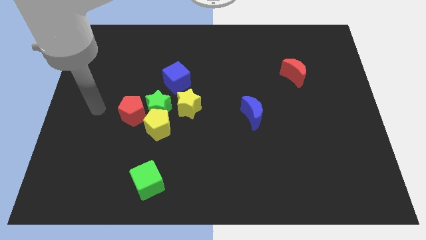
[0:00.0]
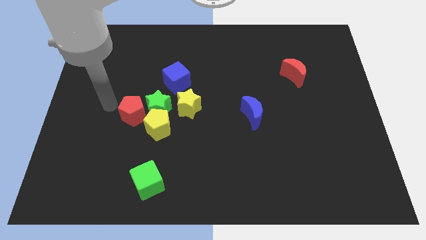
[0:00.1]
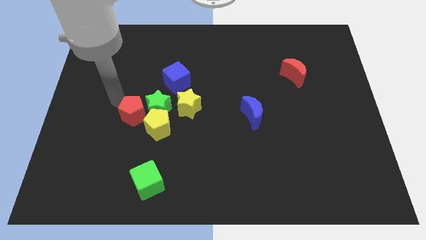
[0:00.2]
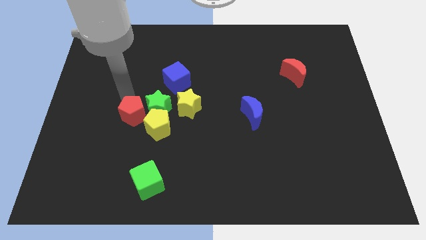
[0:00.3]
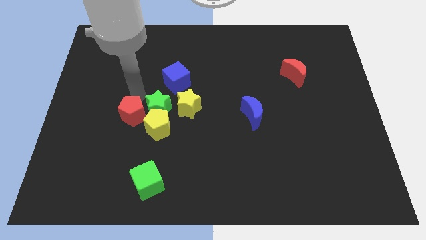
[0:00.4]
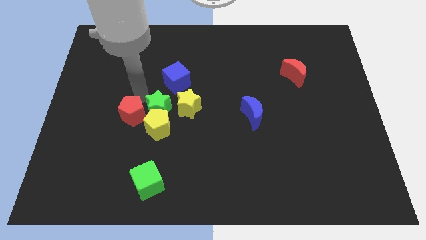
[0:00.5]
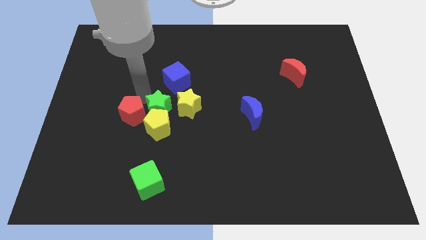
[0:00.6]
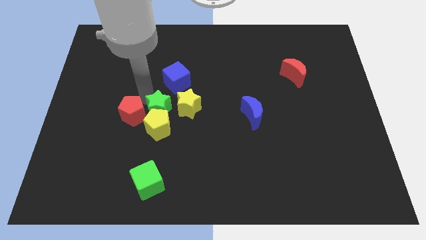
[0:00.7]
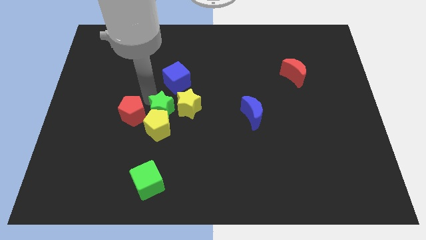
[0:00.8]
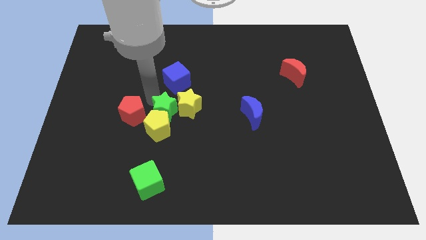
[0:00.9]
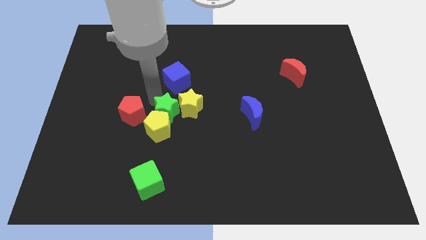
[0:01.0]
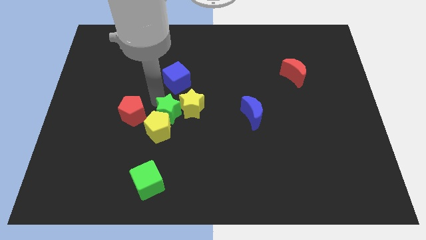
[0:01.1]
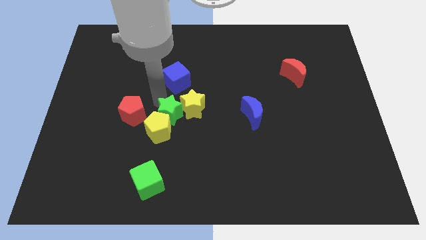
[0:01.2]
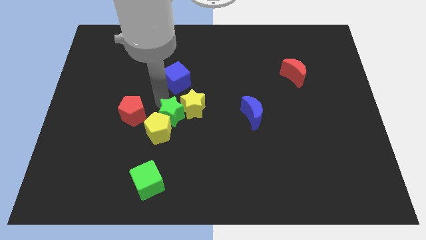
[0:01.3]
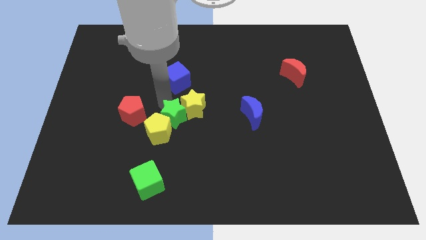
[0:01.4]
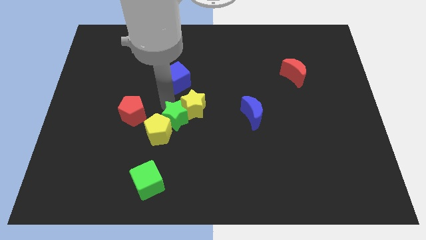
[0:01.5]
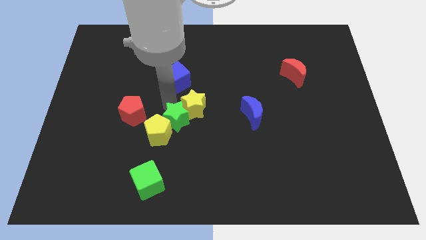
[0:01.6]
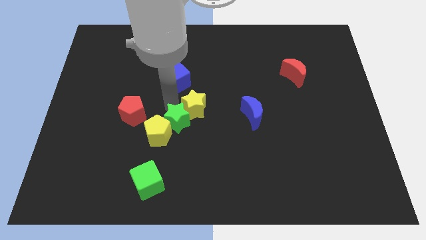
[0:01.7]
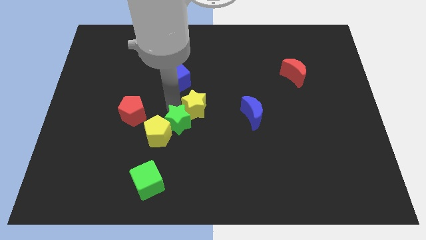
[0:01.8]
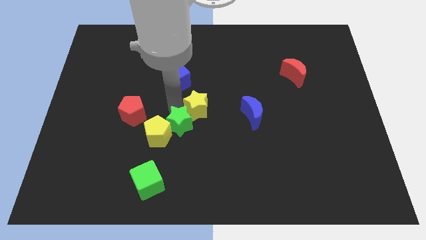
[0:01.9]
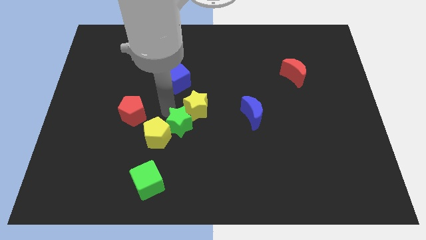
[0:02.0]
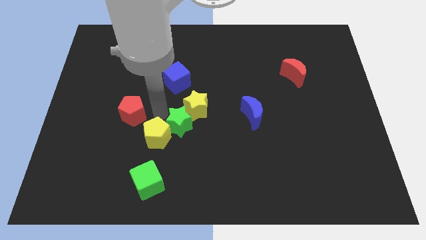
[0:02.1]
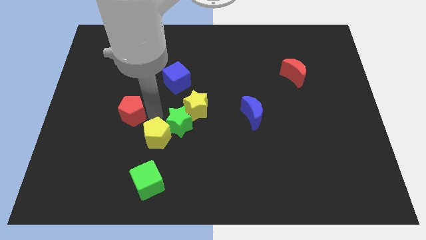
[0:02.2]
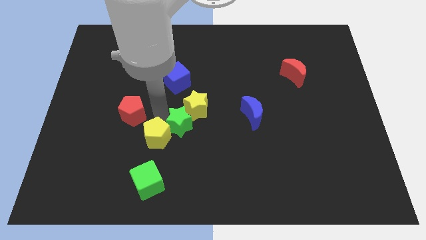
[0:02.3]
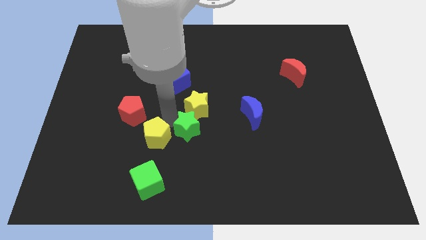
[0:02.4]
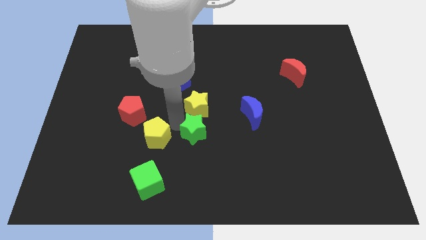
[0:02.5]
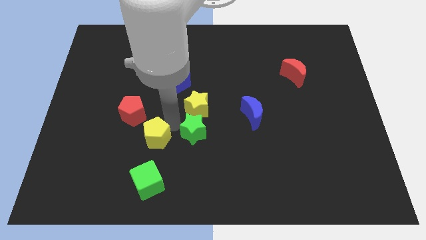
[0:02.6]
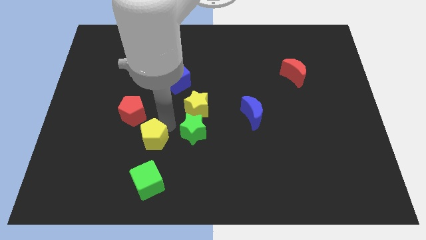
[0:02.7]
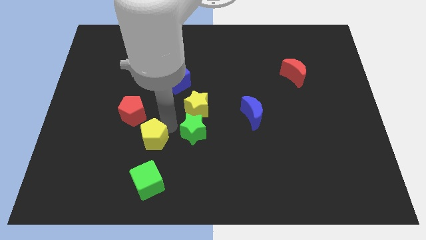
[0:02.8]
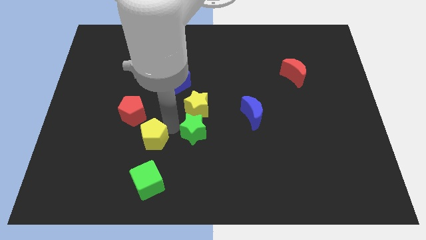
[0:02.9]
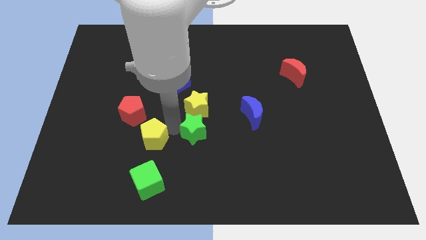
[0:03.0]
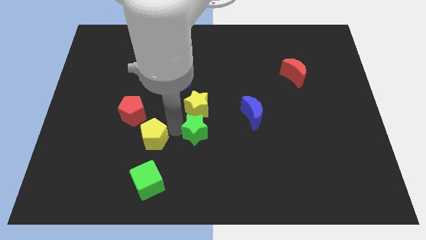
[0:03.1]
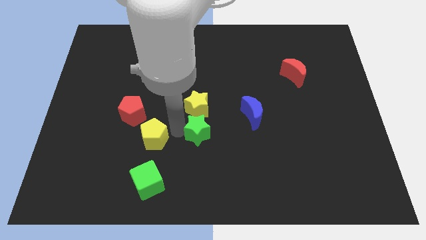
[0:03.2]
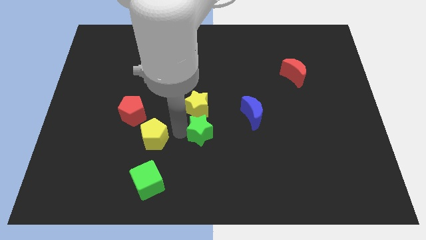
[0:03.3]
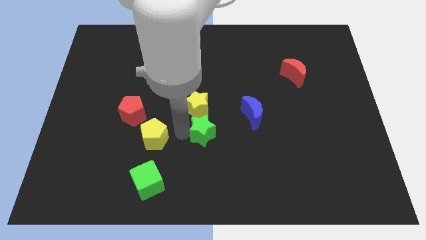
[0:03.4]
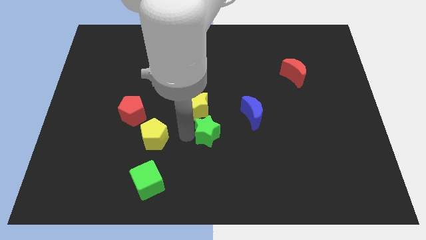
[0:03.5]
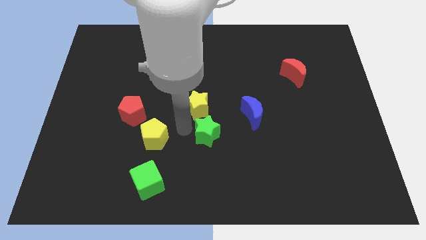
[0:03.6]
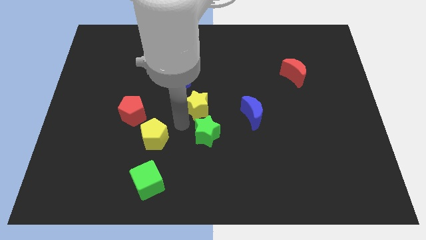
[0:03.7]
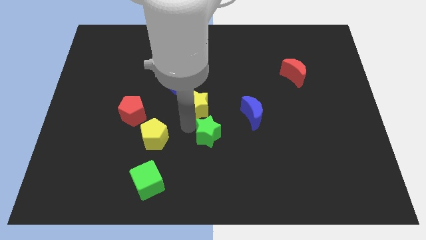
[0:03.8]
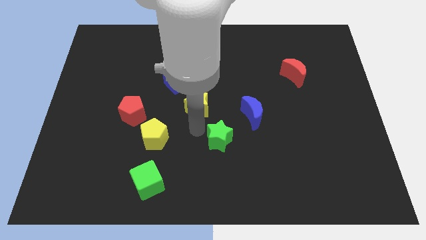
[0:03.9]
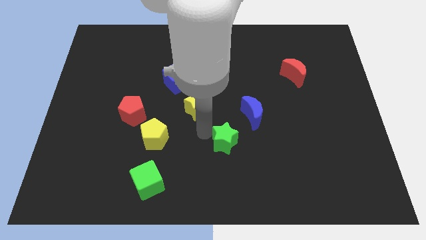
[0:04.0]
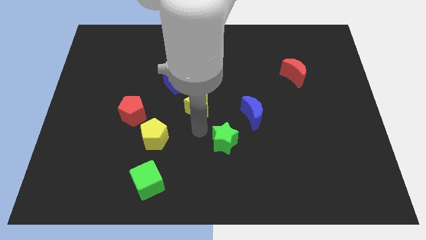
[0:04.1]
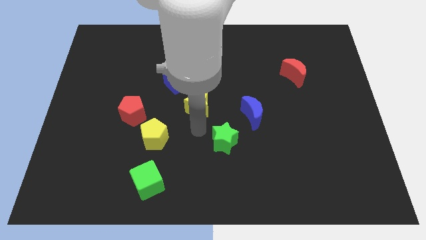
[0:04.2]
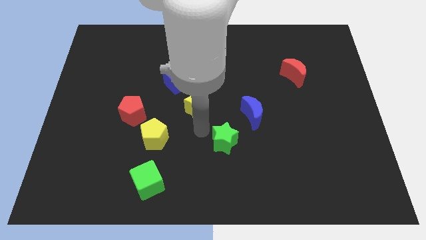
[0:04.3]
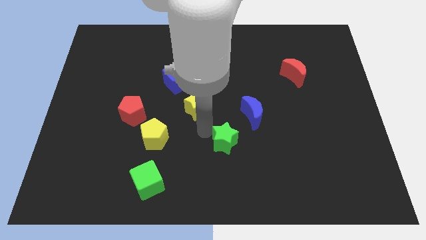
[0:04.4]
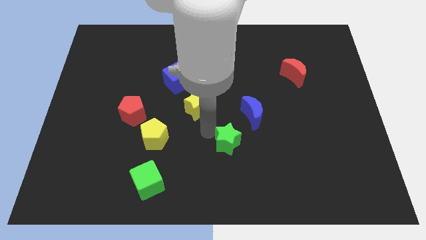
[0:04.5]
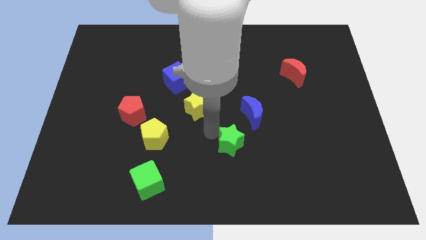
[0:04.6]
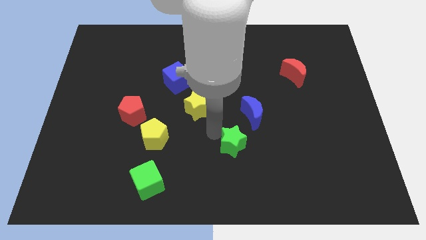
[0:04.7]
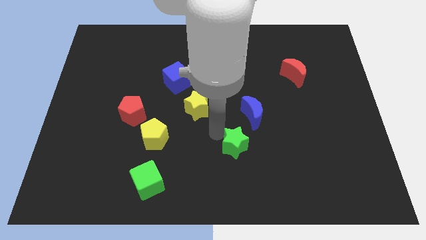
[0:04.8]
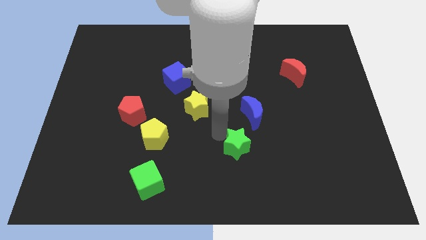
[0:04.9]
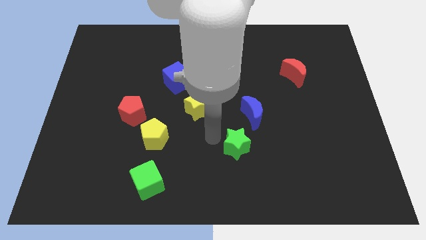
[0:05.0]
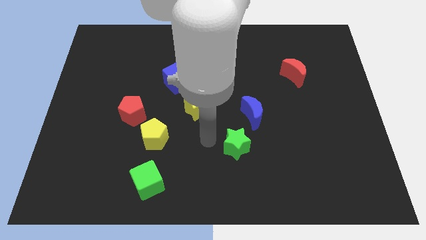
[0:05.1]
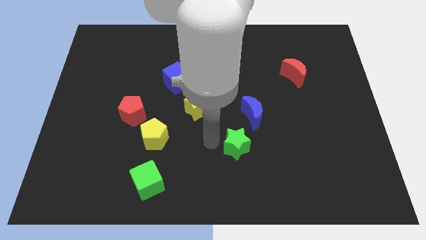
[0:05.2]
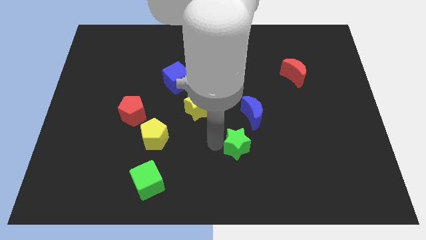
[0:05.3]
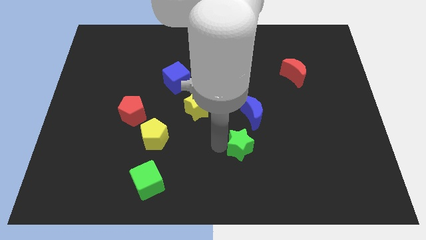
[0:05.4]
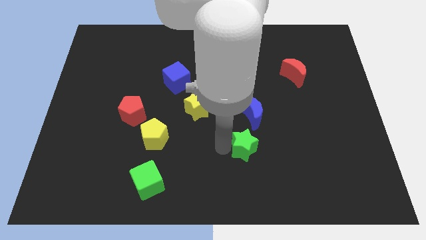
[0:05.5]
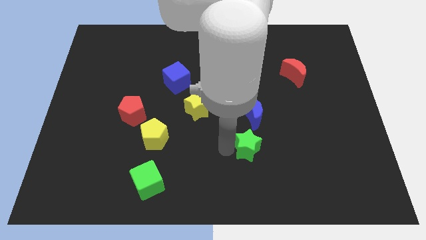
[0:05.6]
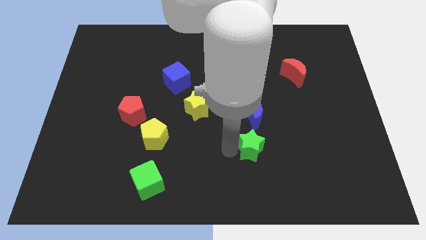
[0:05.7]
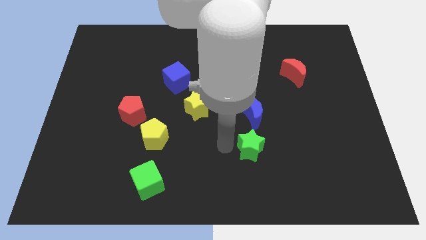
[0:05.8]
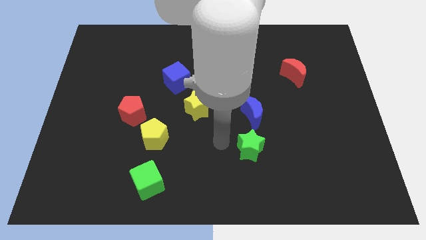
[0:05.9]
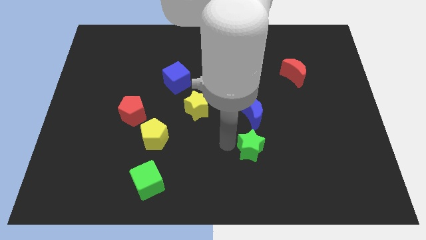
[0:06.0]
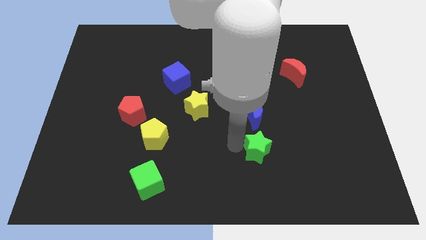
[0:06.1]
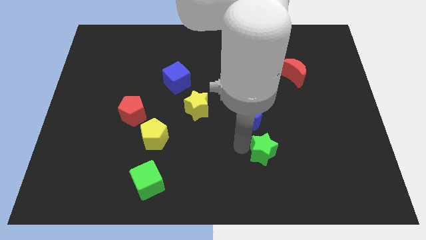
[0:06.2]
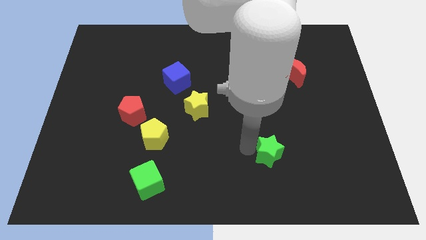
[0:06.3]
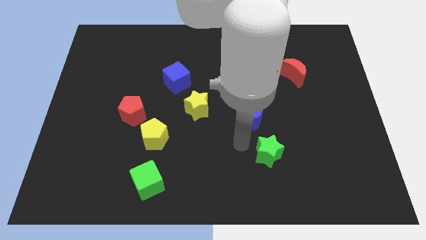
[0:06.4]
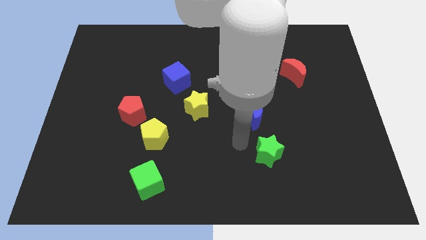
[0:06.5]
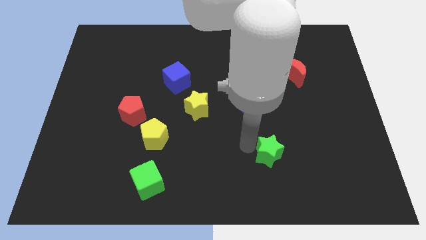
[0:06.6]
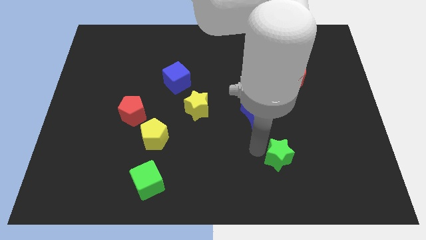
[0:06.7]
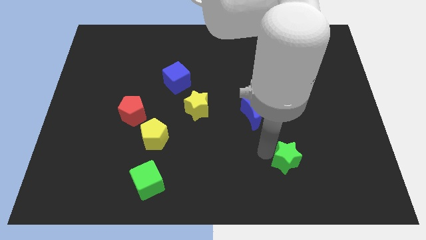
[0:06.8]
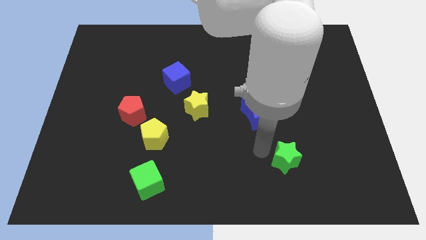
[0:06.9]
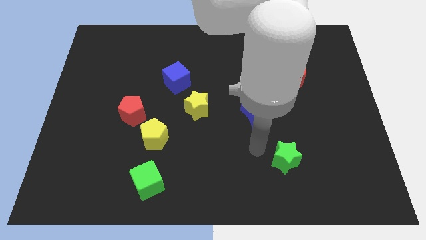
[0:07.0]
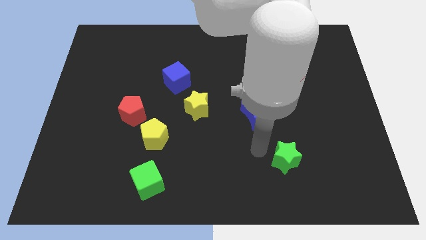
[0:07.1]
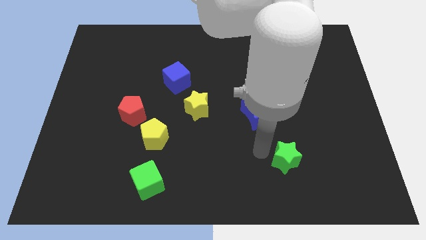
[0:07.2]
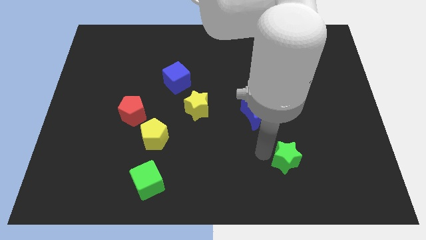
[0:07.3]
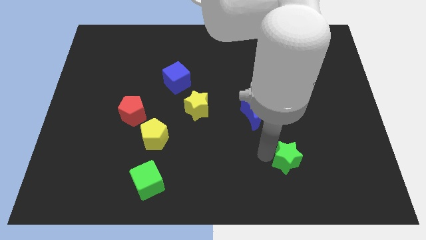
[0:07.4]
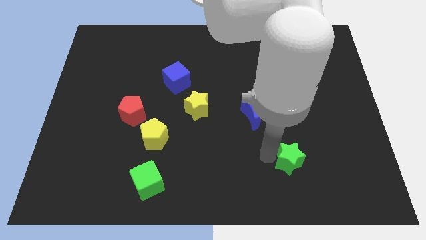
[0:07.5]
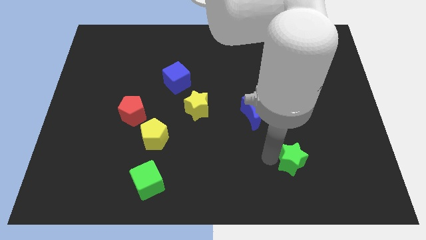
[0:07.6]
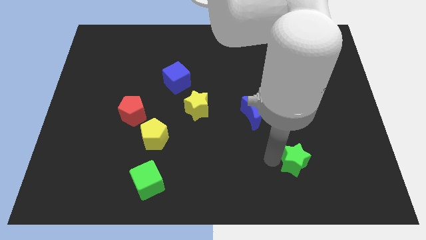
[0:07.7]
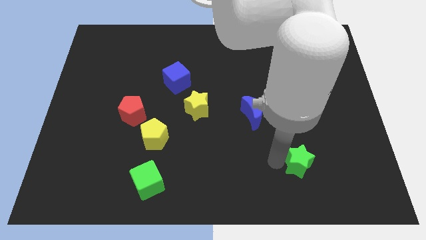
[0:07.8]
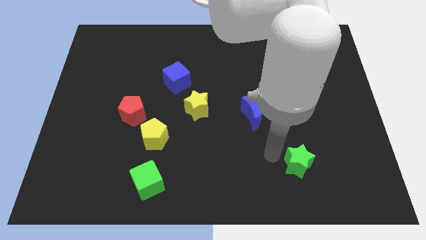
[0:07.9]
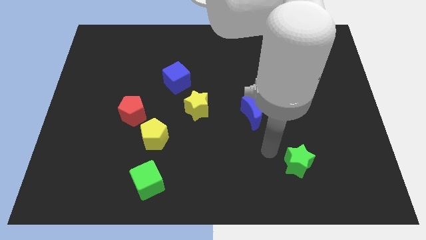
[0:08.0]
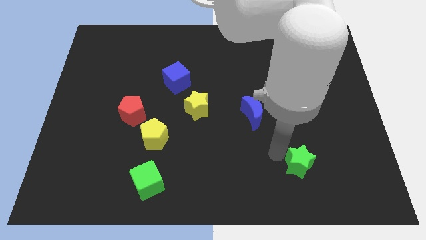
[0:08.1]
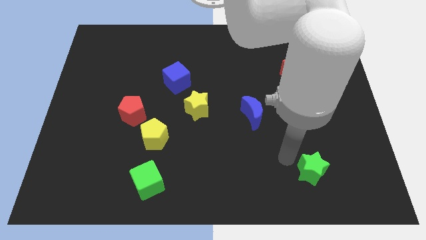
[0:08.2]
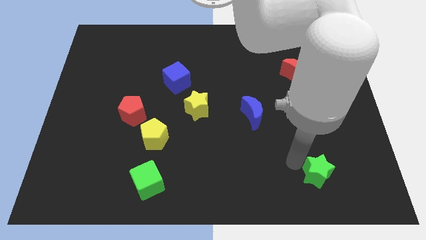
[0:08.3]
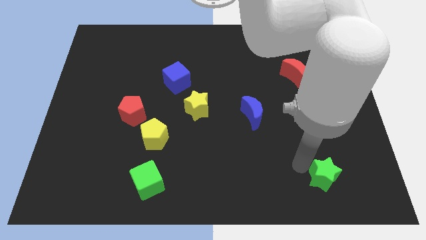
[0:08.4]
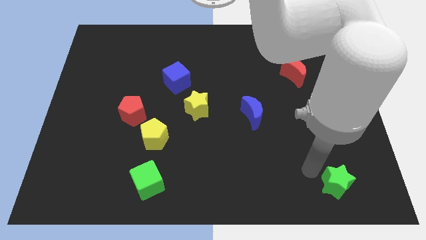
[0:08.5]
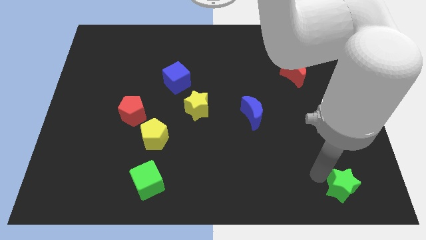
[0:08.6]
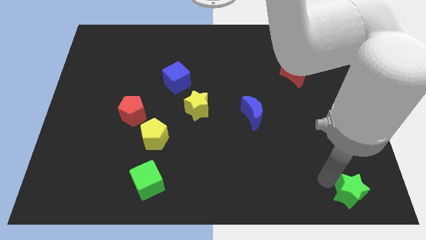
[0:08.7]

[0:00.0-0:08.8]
slide the green star to the lower right corner
